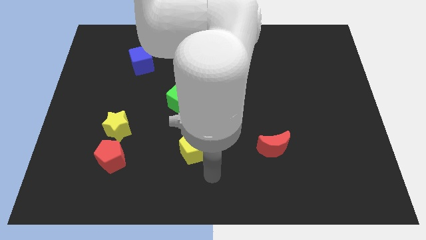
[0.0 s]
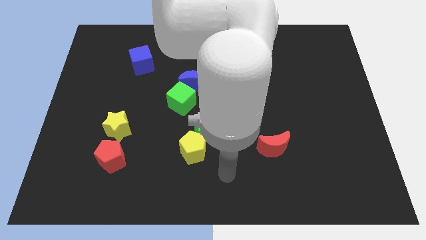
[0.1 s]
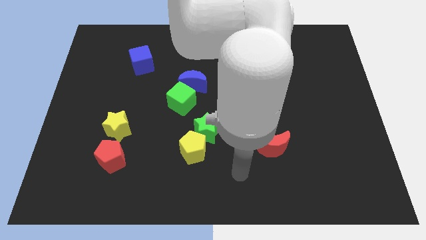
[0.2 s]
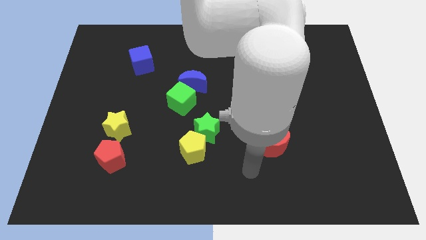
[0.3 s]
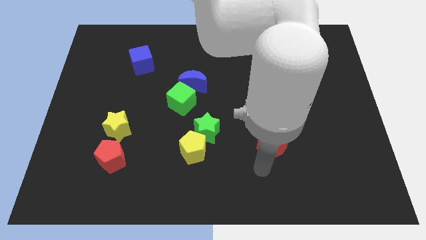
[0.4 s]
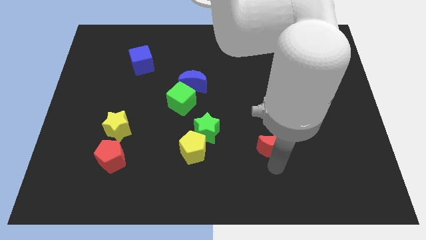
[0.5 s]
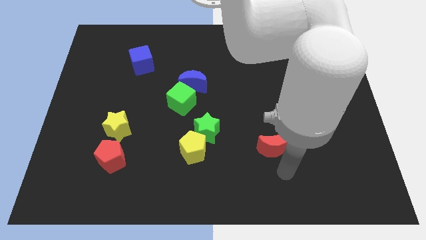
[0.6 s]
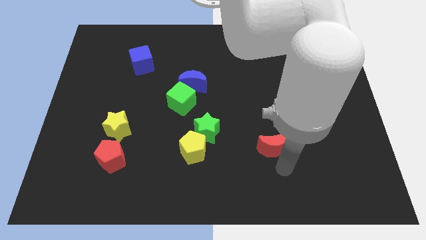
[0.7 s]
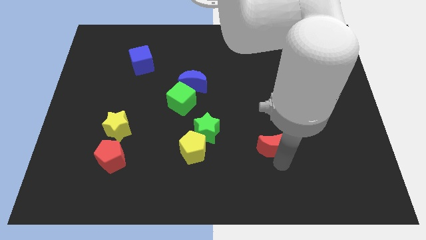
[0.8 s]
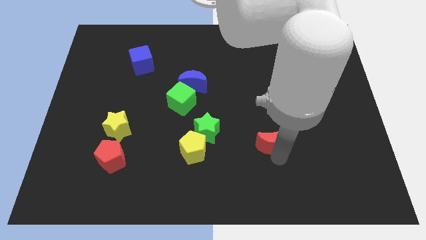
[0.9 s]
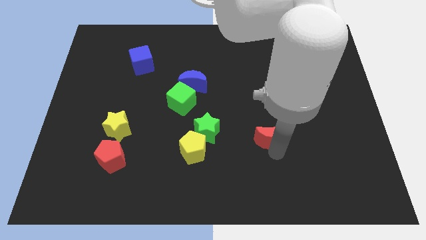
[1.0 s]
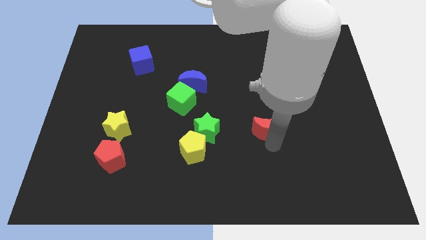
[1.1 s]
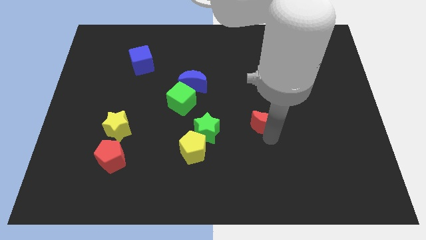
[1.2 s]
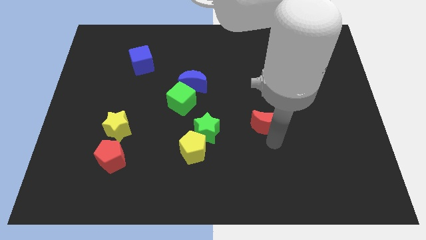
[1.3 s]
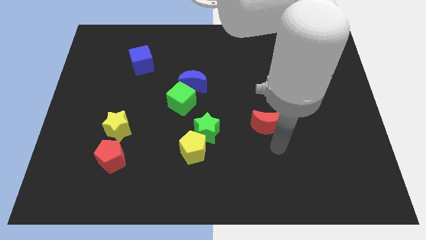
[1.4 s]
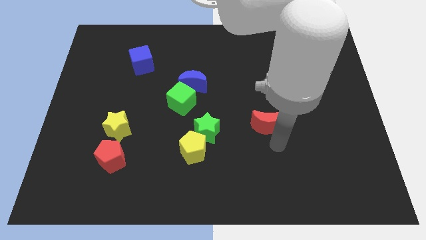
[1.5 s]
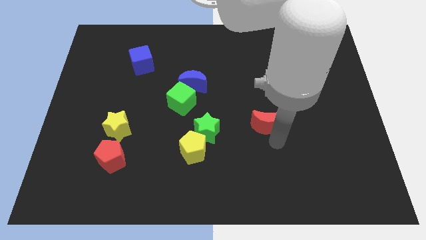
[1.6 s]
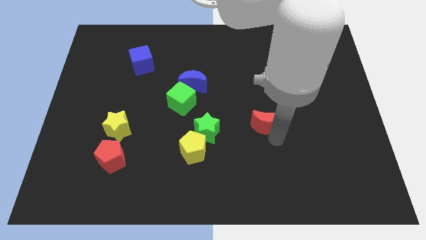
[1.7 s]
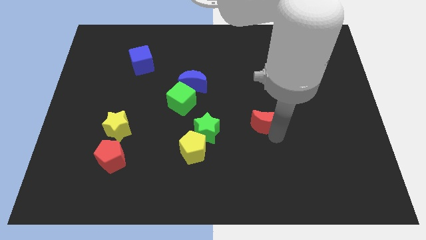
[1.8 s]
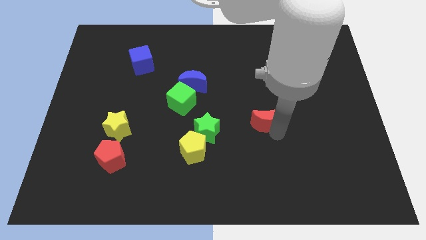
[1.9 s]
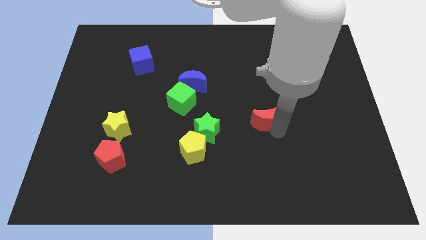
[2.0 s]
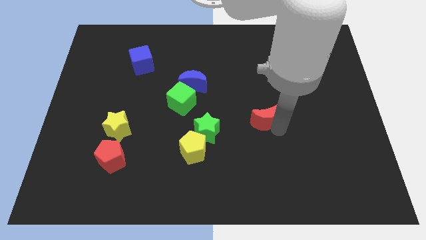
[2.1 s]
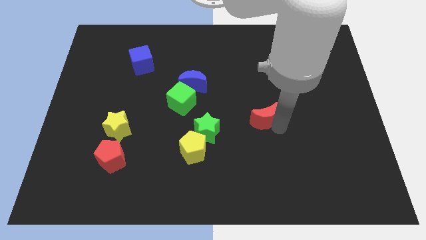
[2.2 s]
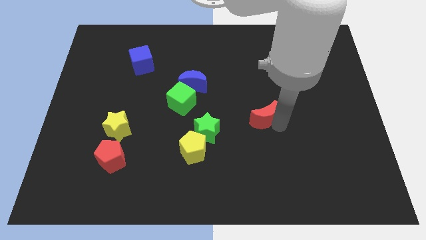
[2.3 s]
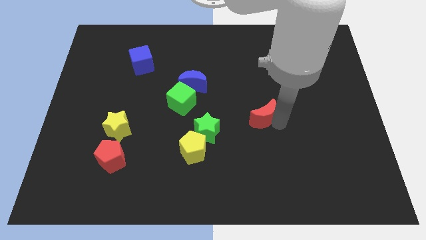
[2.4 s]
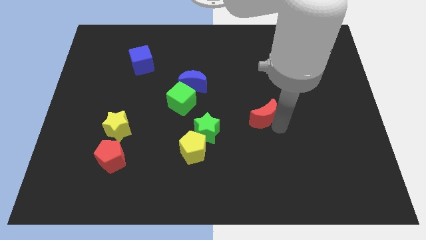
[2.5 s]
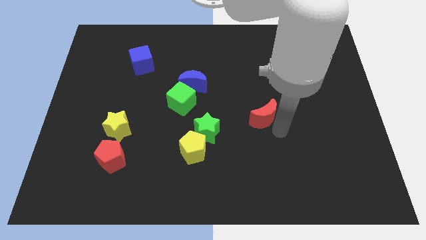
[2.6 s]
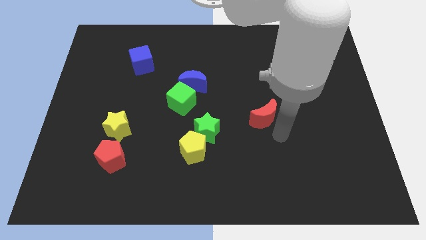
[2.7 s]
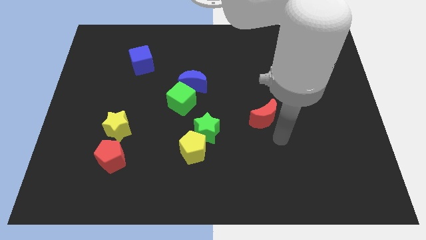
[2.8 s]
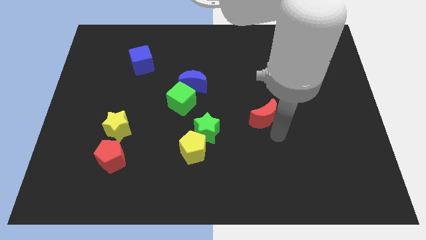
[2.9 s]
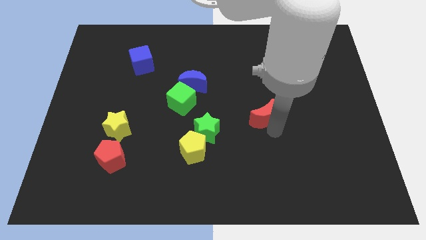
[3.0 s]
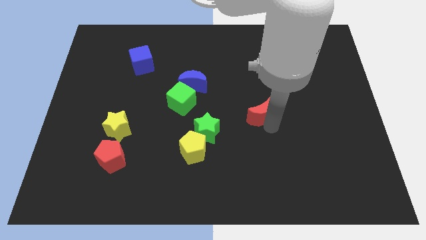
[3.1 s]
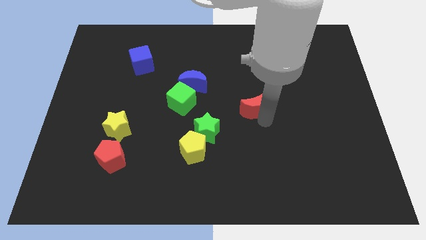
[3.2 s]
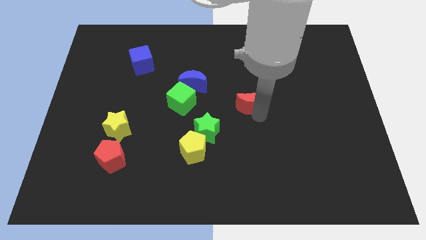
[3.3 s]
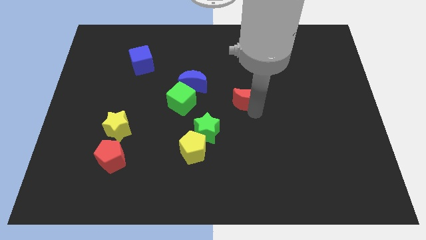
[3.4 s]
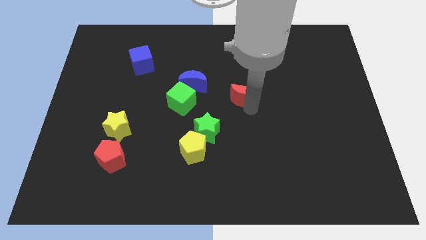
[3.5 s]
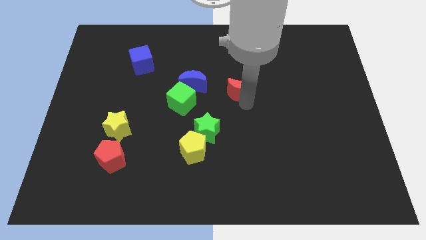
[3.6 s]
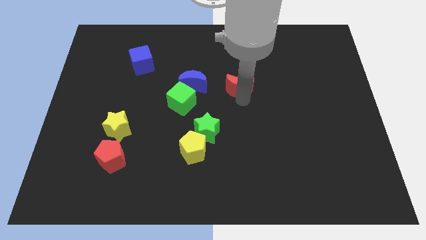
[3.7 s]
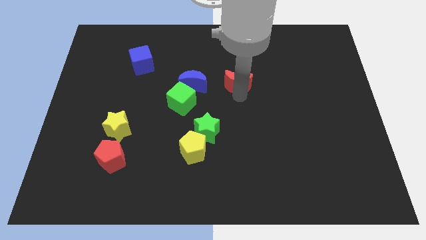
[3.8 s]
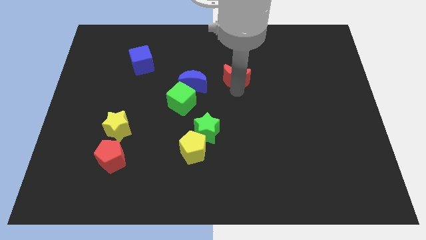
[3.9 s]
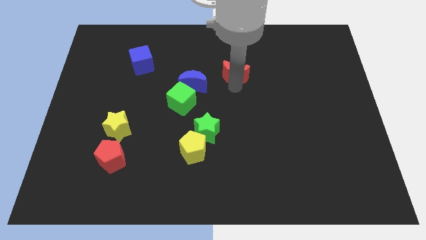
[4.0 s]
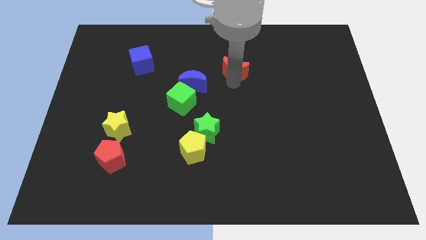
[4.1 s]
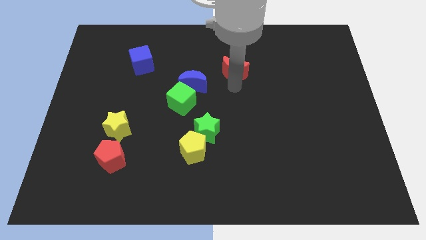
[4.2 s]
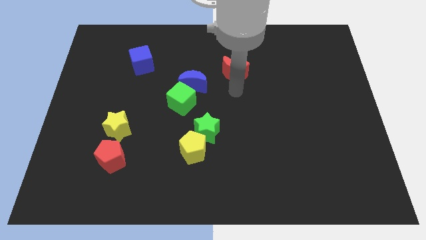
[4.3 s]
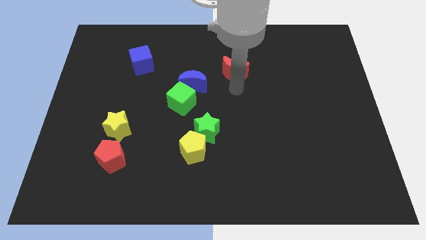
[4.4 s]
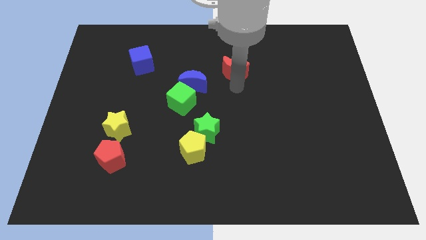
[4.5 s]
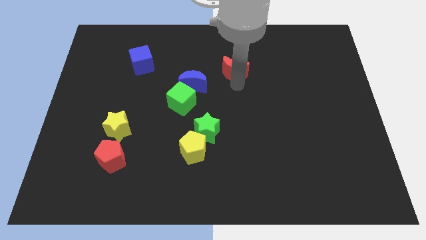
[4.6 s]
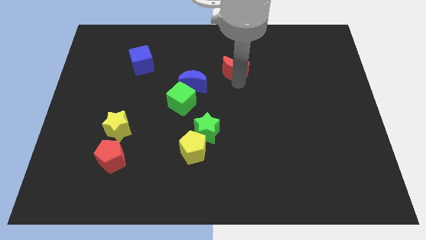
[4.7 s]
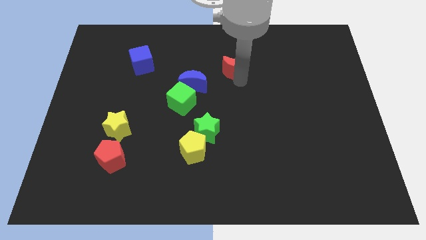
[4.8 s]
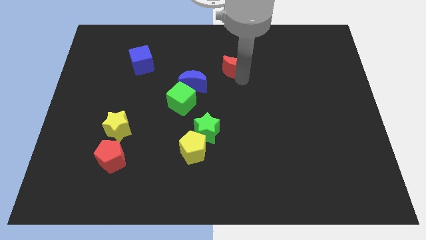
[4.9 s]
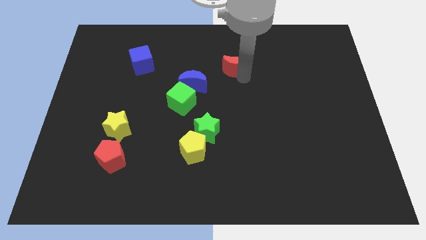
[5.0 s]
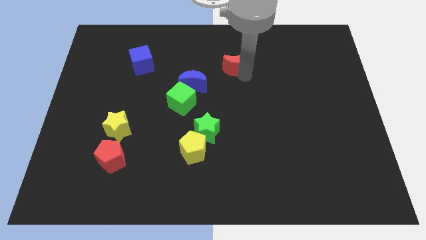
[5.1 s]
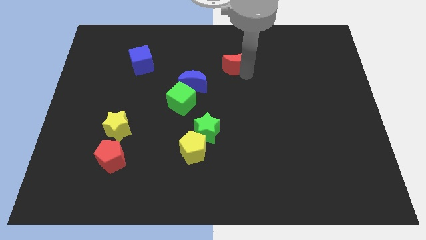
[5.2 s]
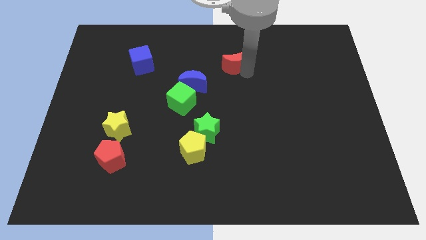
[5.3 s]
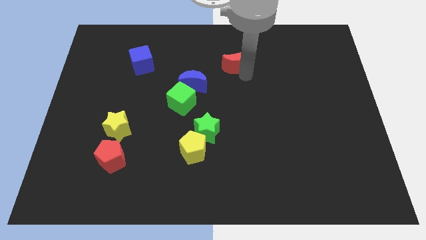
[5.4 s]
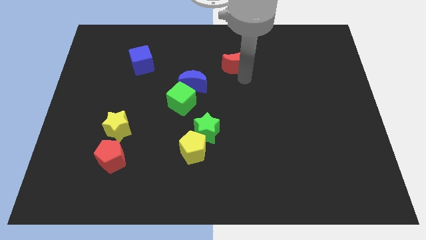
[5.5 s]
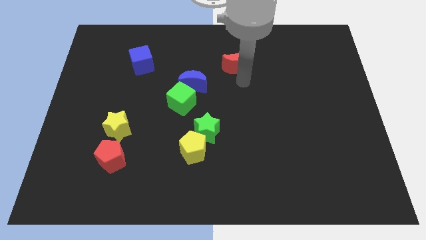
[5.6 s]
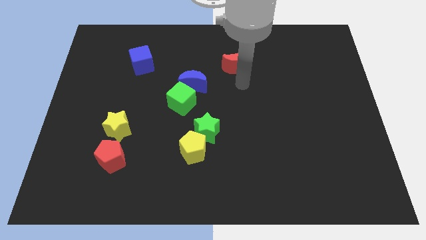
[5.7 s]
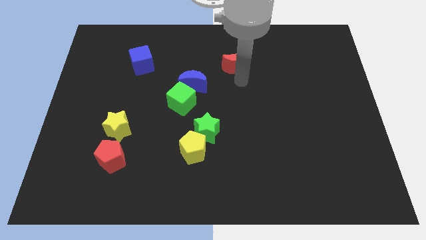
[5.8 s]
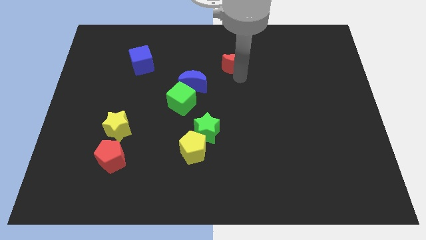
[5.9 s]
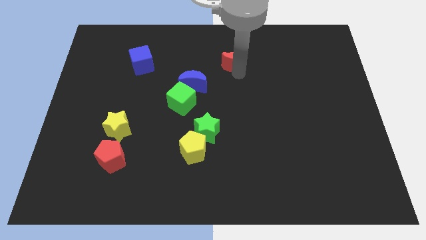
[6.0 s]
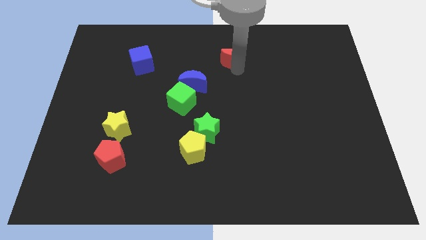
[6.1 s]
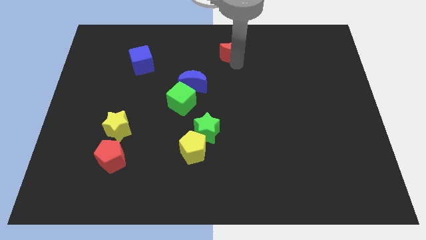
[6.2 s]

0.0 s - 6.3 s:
move the red moon to the top
